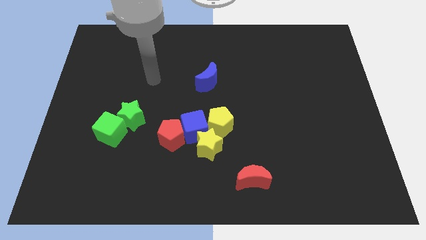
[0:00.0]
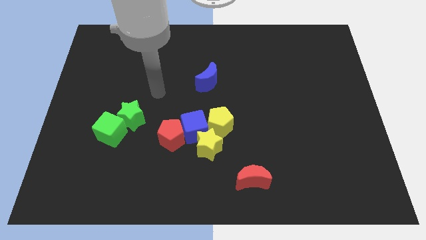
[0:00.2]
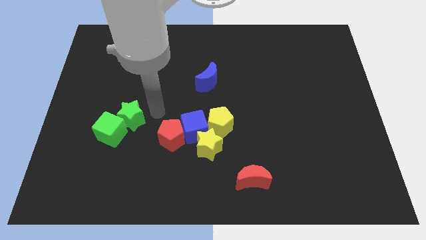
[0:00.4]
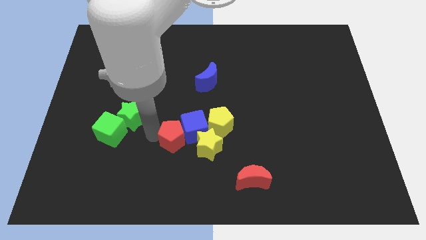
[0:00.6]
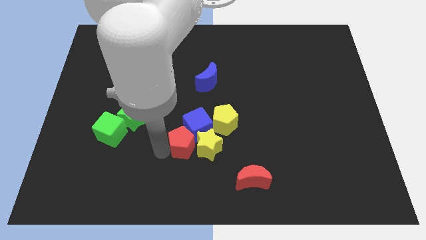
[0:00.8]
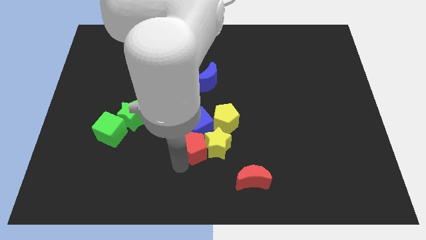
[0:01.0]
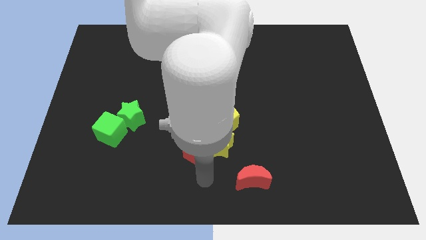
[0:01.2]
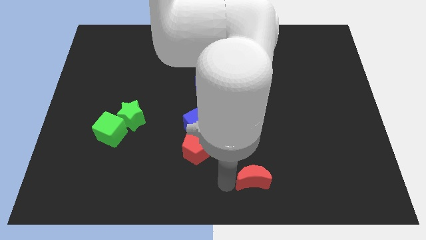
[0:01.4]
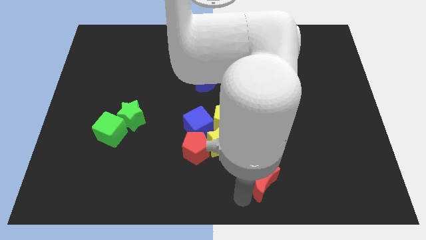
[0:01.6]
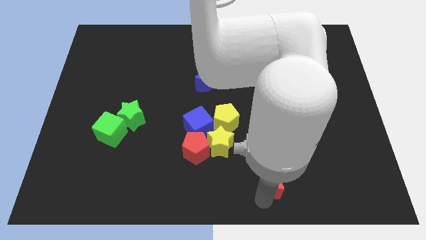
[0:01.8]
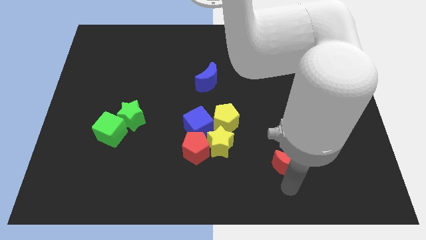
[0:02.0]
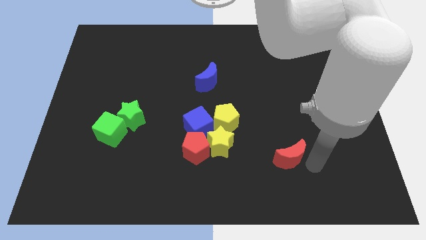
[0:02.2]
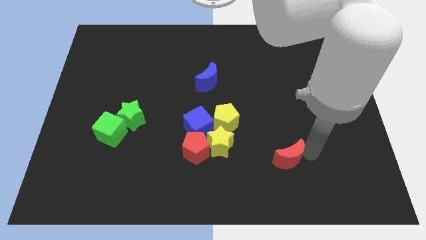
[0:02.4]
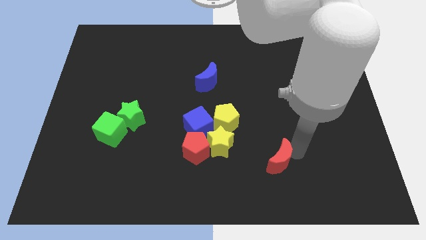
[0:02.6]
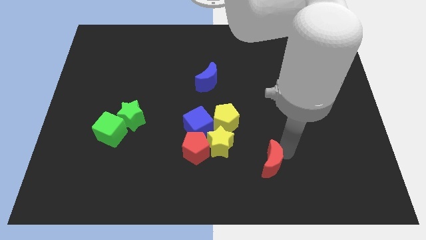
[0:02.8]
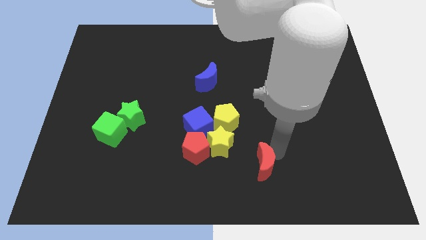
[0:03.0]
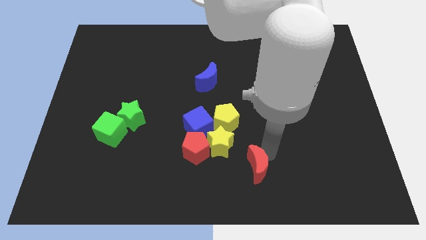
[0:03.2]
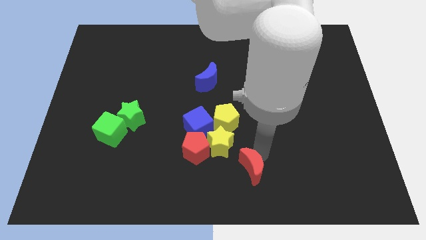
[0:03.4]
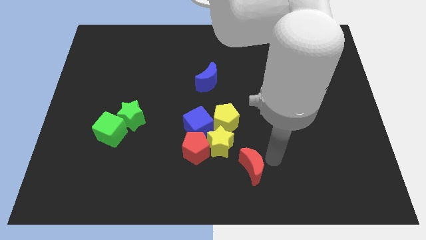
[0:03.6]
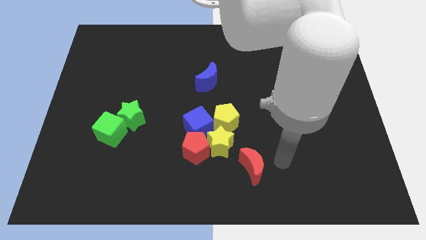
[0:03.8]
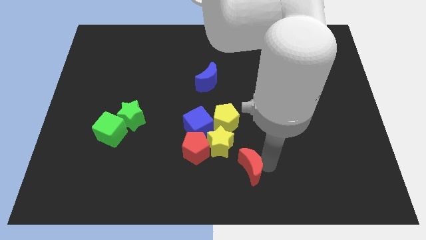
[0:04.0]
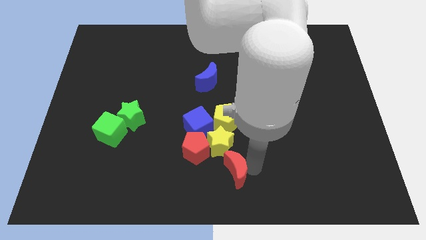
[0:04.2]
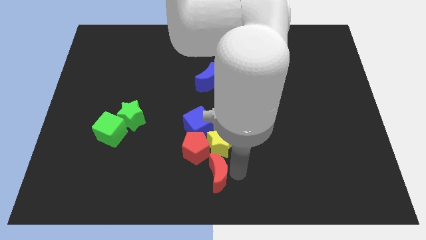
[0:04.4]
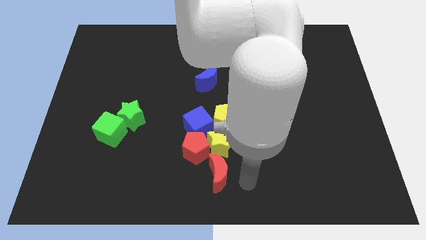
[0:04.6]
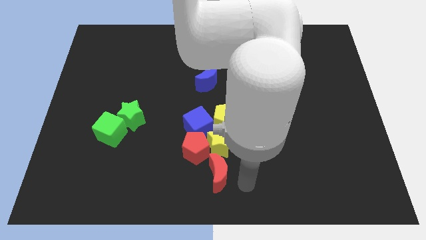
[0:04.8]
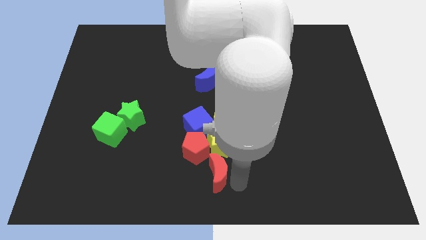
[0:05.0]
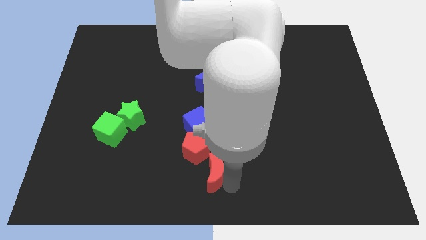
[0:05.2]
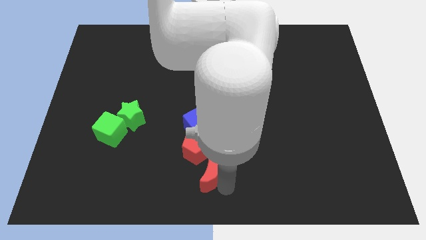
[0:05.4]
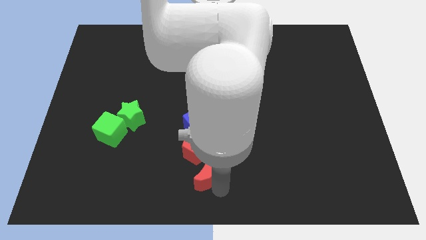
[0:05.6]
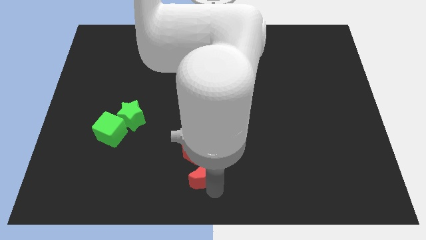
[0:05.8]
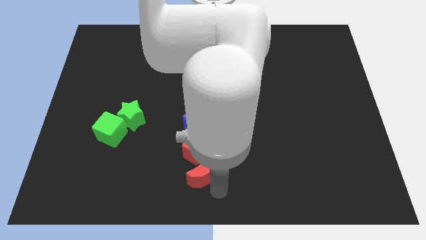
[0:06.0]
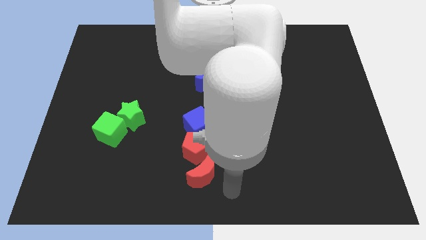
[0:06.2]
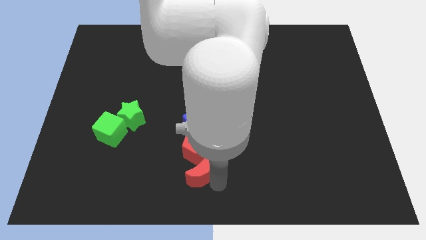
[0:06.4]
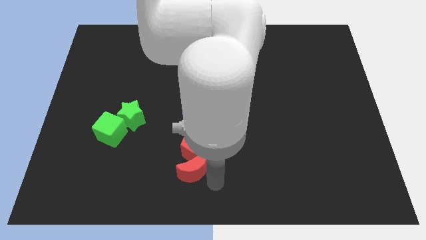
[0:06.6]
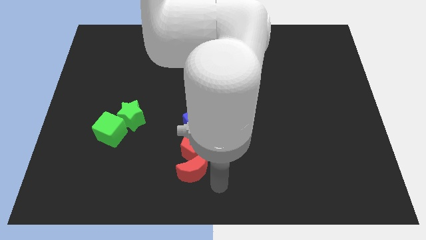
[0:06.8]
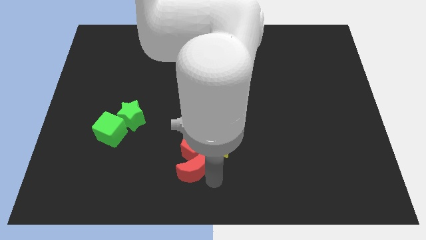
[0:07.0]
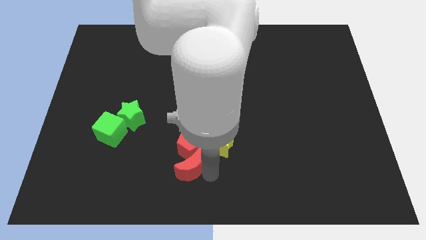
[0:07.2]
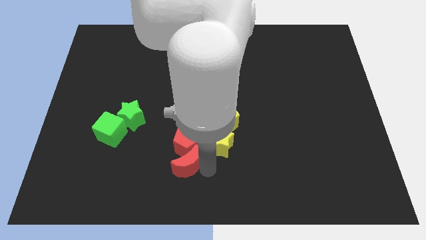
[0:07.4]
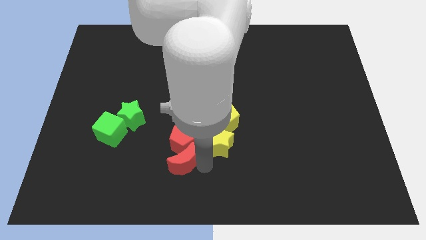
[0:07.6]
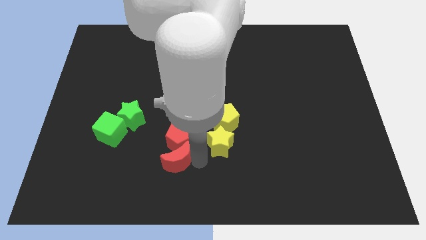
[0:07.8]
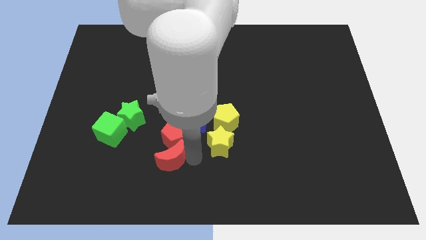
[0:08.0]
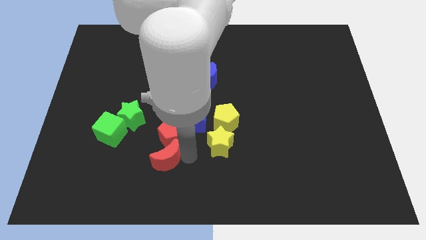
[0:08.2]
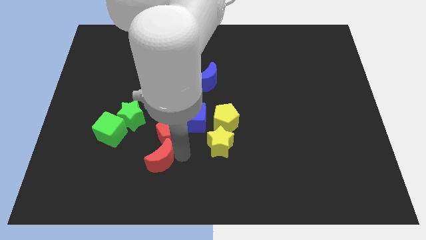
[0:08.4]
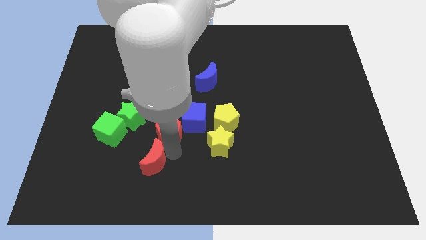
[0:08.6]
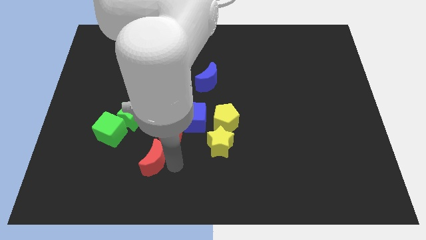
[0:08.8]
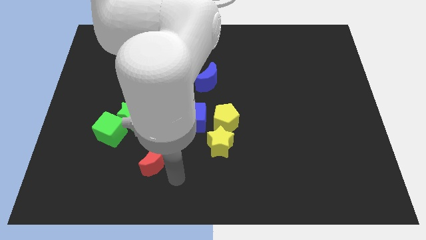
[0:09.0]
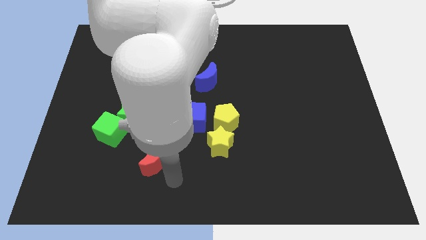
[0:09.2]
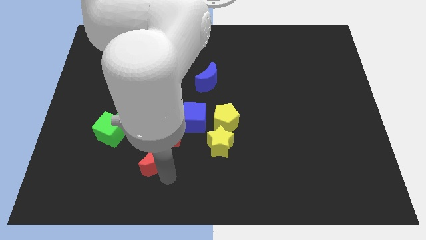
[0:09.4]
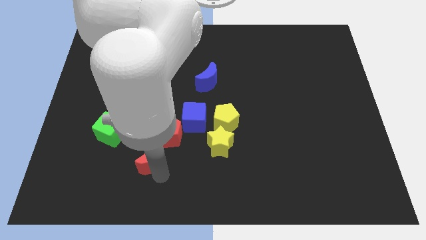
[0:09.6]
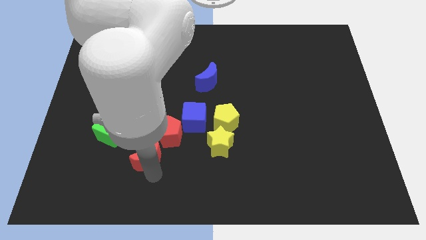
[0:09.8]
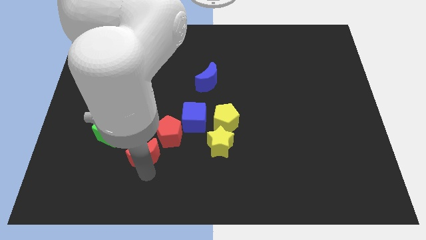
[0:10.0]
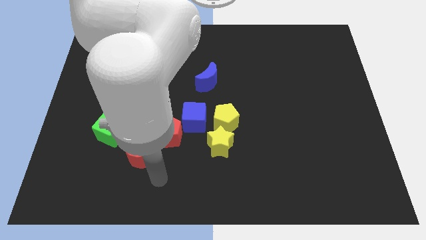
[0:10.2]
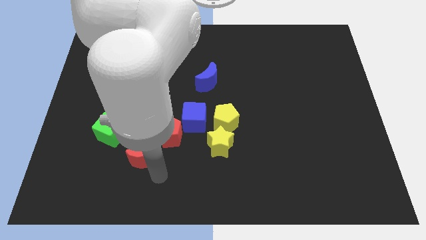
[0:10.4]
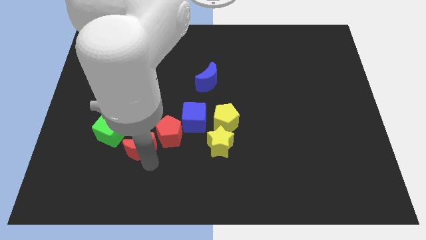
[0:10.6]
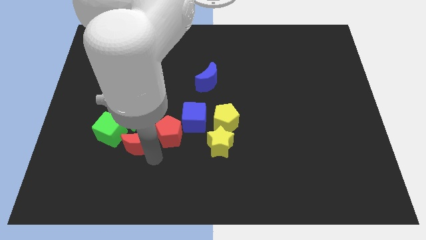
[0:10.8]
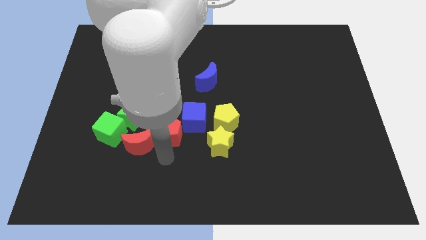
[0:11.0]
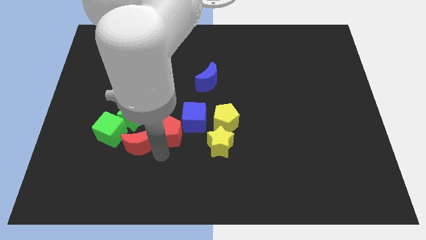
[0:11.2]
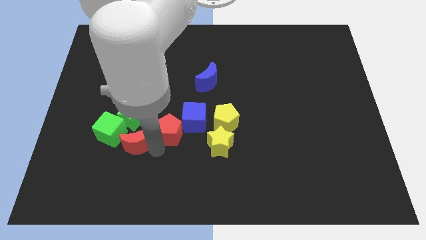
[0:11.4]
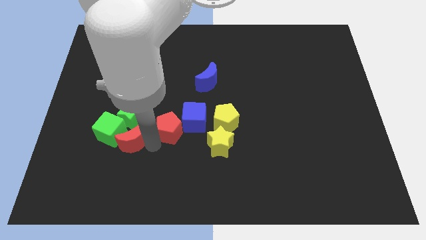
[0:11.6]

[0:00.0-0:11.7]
slide the red moon close to the green cube

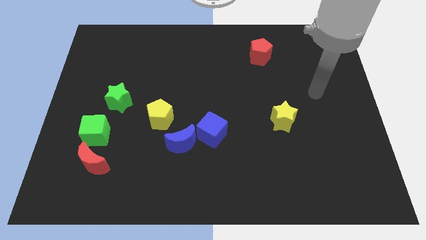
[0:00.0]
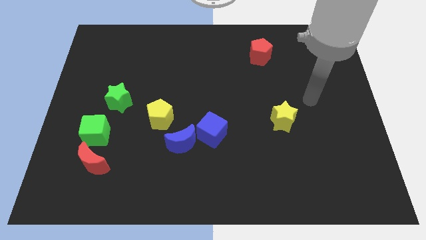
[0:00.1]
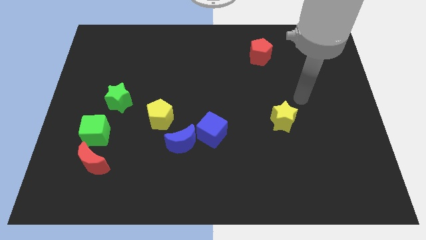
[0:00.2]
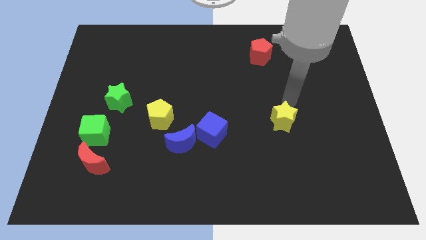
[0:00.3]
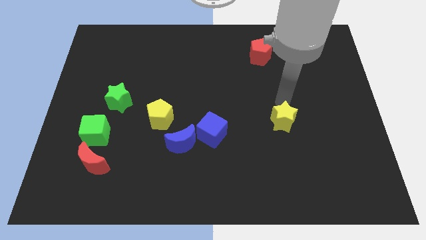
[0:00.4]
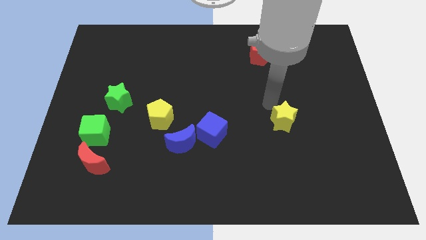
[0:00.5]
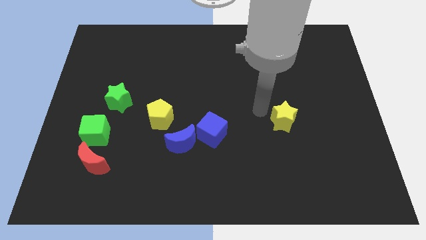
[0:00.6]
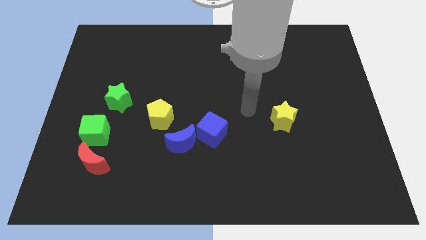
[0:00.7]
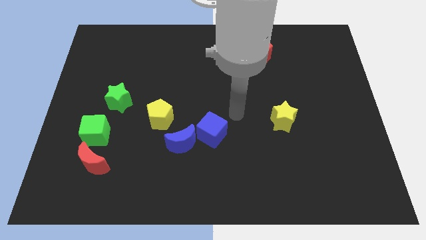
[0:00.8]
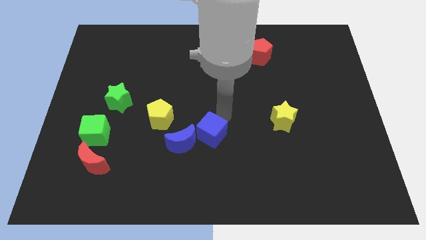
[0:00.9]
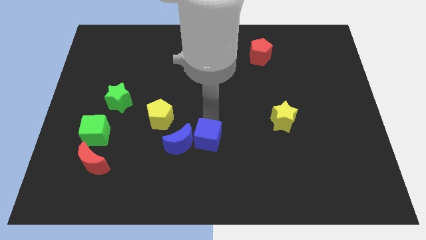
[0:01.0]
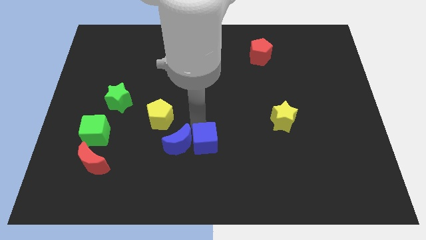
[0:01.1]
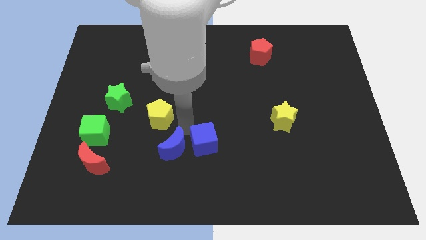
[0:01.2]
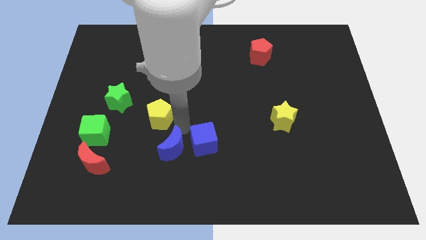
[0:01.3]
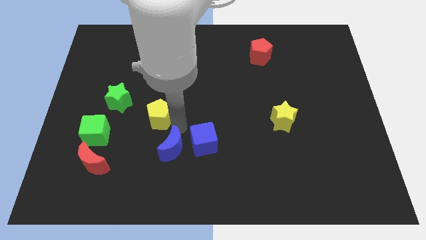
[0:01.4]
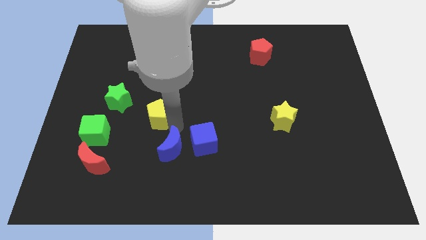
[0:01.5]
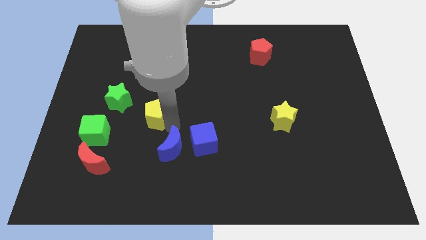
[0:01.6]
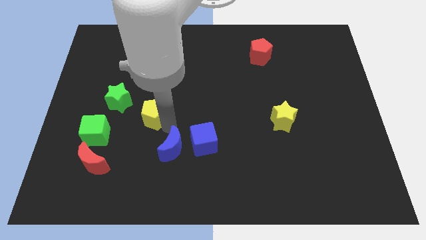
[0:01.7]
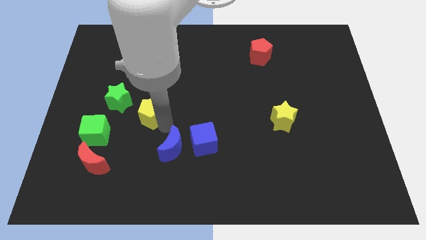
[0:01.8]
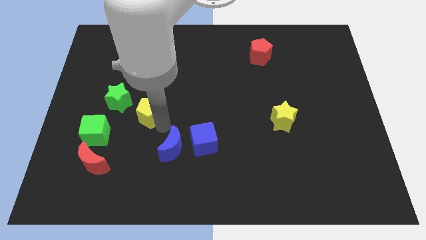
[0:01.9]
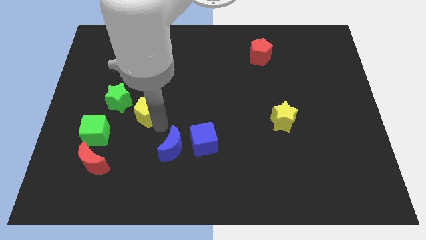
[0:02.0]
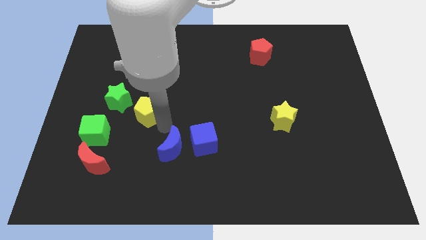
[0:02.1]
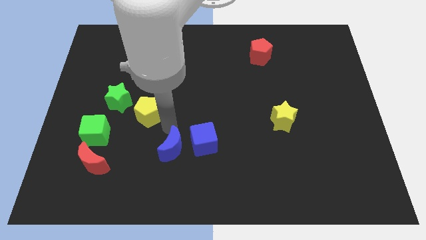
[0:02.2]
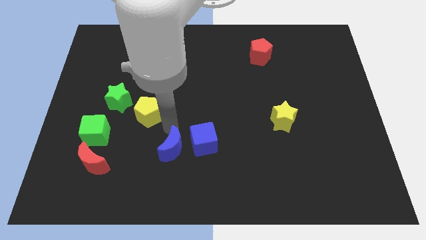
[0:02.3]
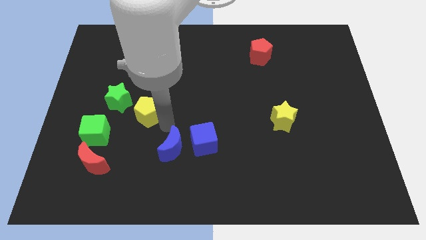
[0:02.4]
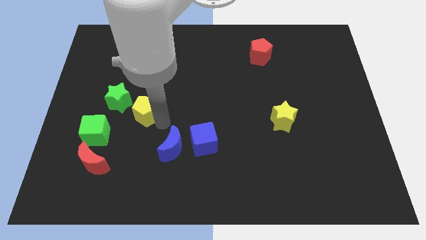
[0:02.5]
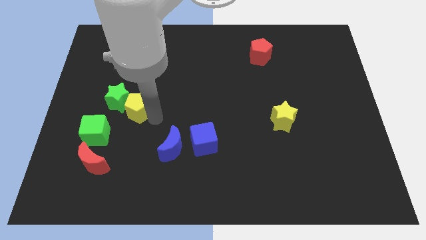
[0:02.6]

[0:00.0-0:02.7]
put the yellow pentagon towards the green star
